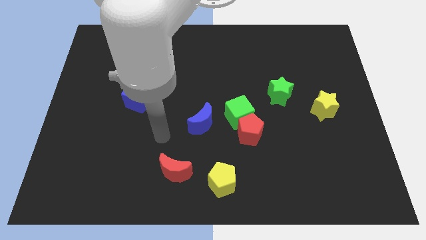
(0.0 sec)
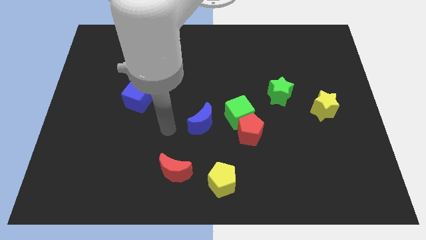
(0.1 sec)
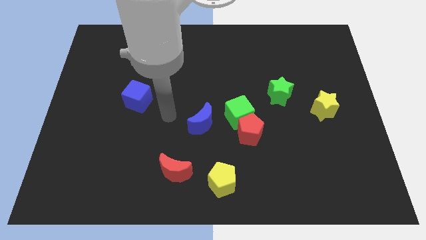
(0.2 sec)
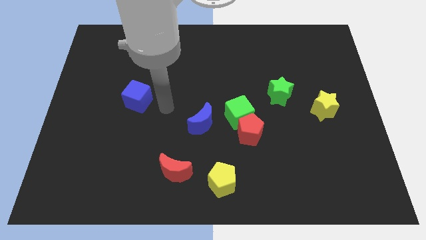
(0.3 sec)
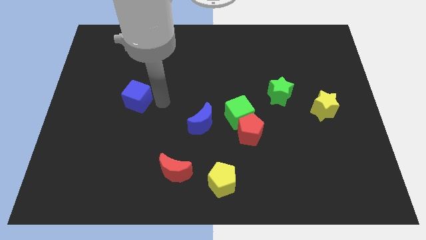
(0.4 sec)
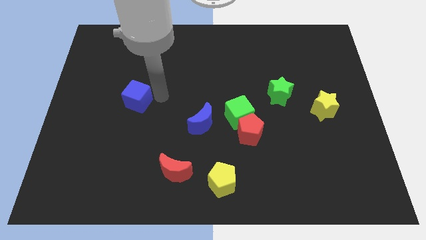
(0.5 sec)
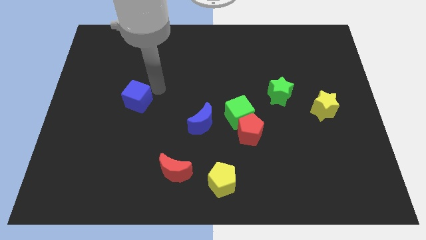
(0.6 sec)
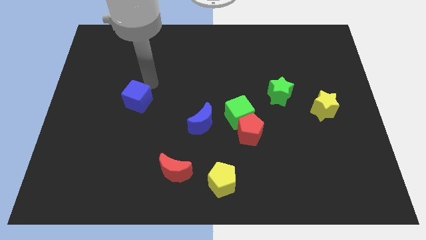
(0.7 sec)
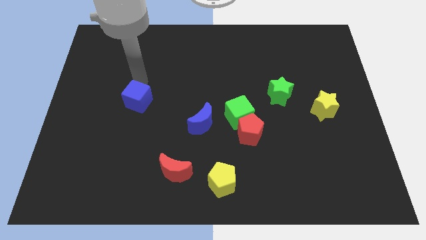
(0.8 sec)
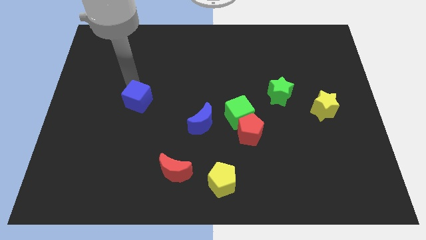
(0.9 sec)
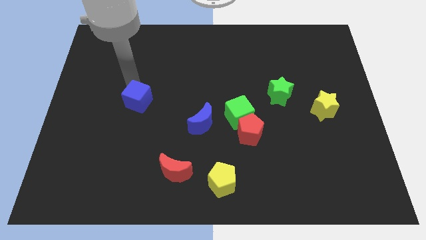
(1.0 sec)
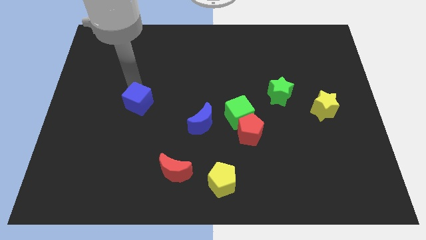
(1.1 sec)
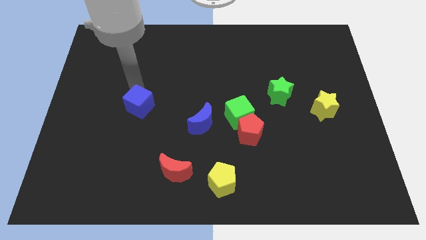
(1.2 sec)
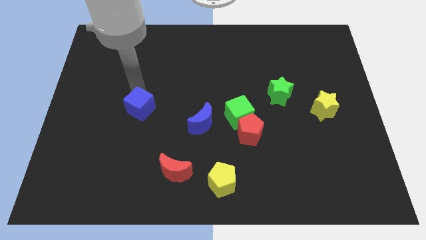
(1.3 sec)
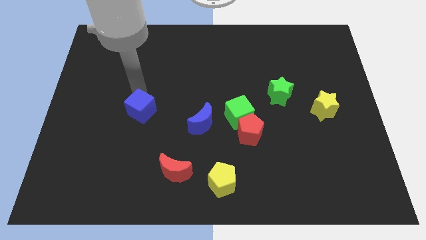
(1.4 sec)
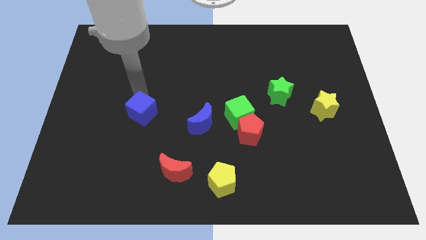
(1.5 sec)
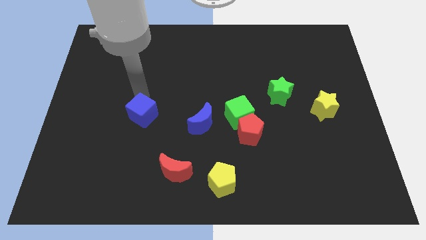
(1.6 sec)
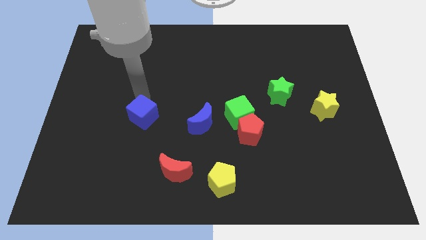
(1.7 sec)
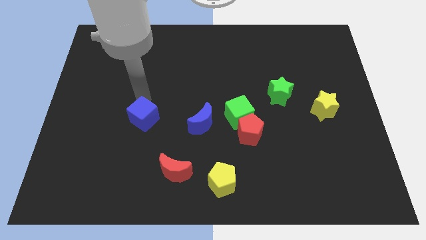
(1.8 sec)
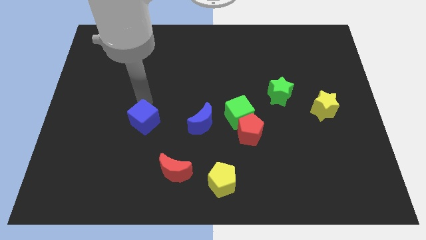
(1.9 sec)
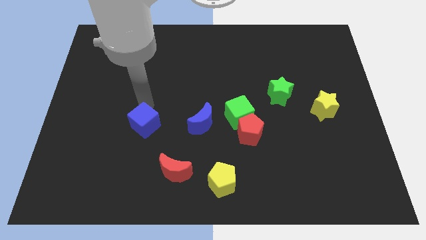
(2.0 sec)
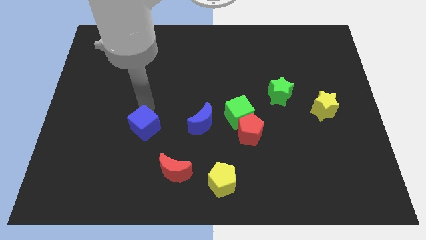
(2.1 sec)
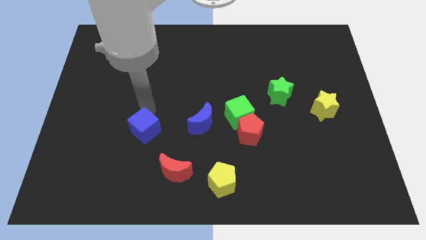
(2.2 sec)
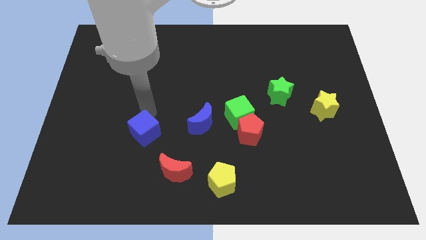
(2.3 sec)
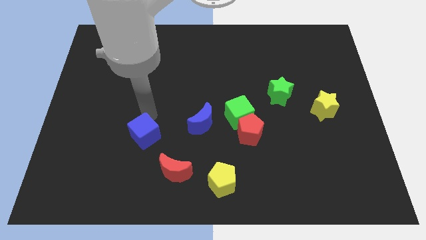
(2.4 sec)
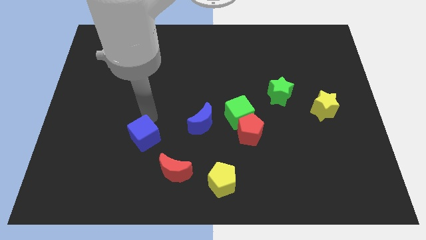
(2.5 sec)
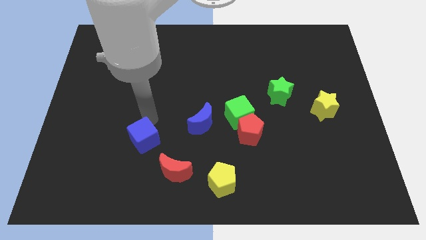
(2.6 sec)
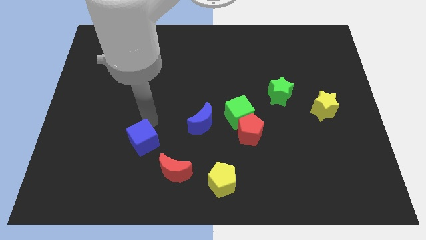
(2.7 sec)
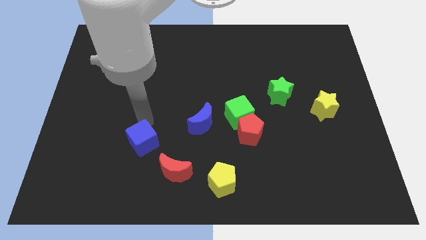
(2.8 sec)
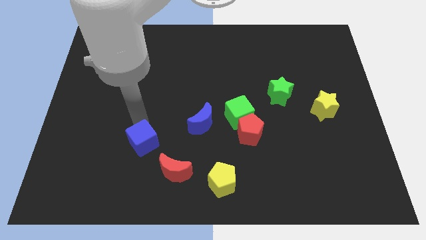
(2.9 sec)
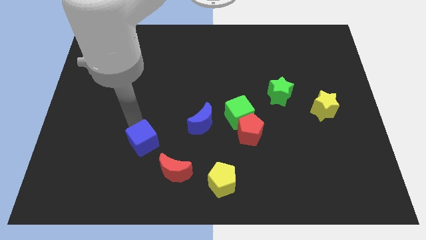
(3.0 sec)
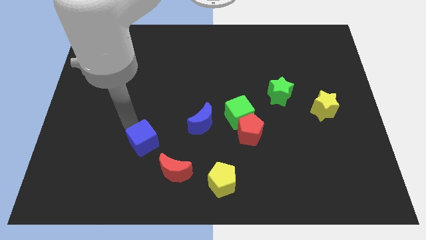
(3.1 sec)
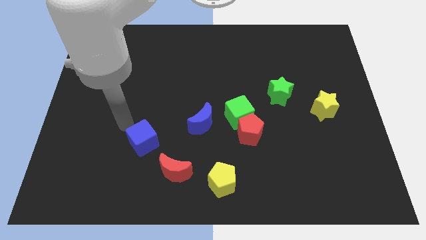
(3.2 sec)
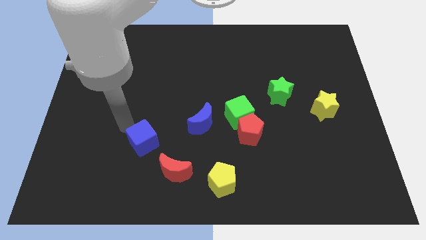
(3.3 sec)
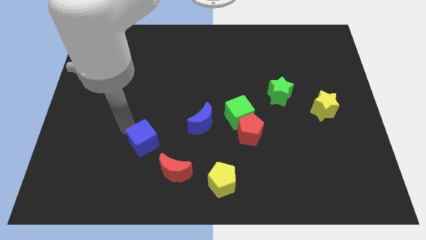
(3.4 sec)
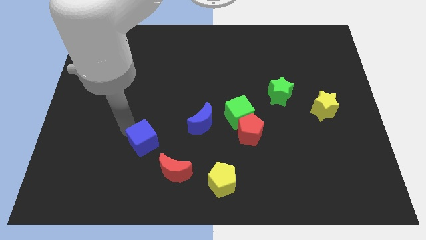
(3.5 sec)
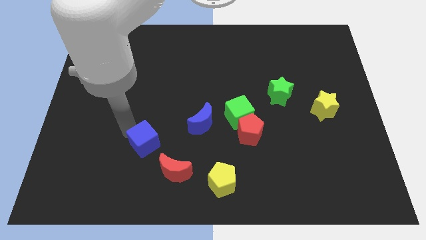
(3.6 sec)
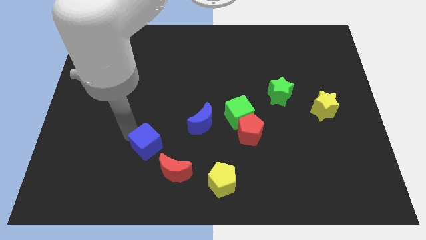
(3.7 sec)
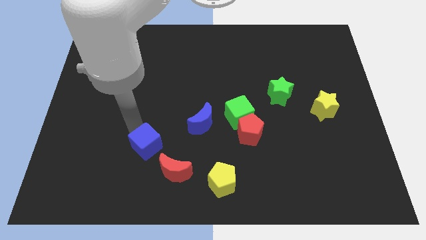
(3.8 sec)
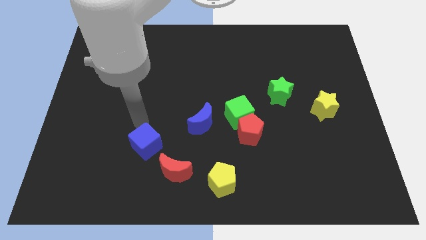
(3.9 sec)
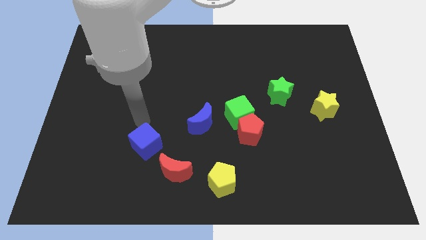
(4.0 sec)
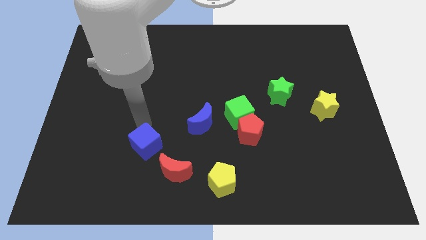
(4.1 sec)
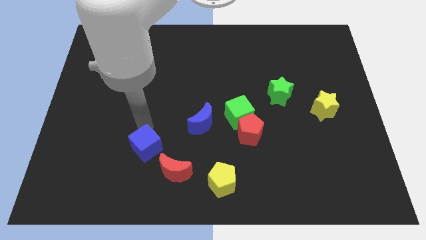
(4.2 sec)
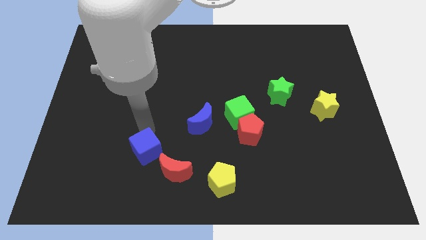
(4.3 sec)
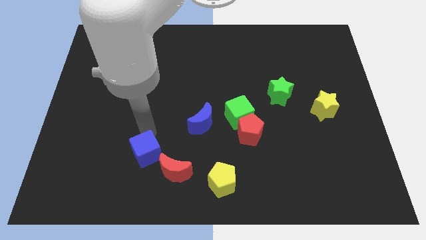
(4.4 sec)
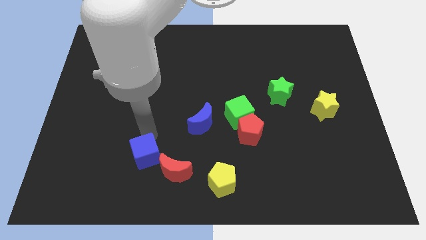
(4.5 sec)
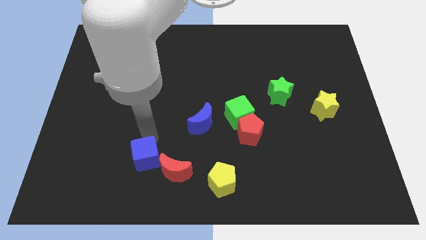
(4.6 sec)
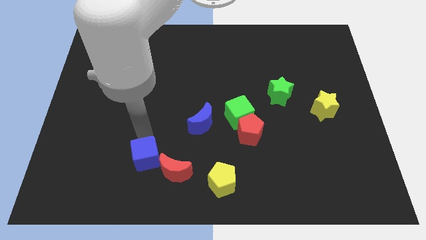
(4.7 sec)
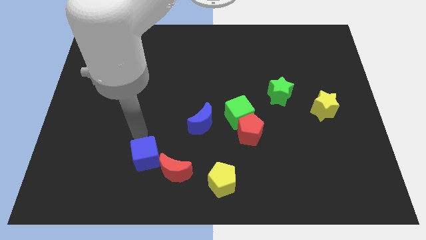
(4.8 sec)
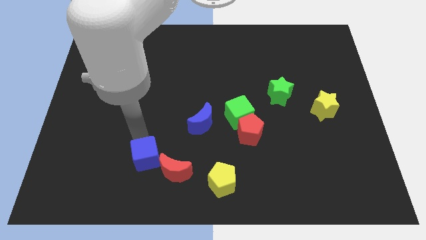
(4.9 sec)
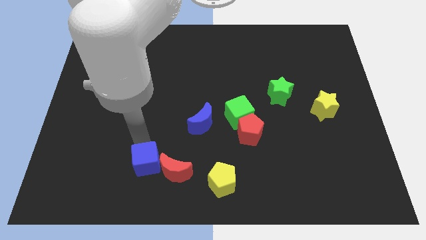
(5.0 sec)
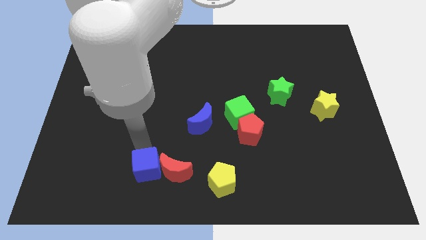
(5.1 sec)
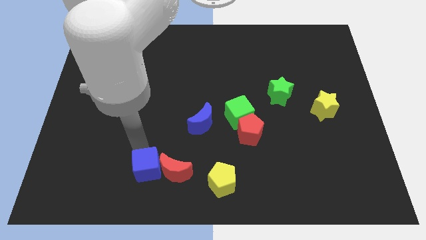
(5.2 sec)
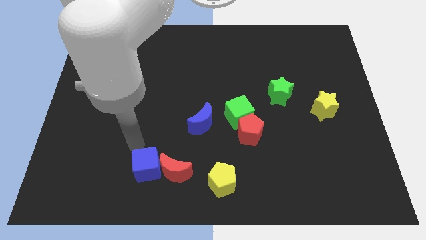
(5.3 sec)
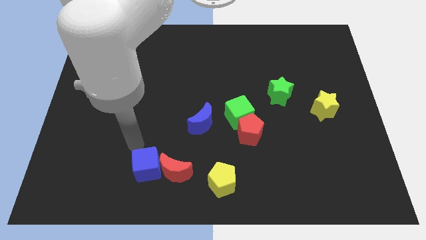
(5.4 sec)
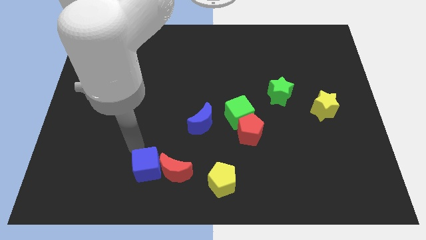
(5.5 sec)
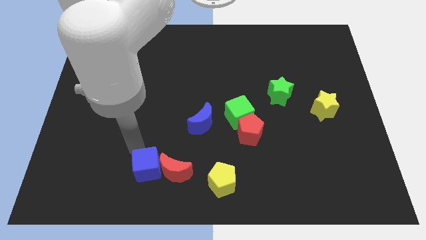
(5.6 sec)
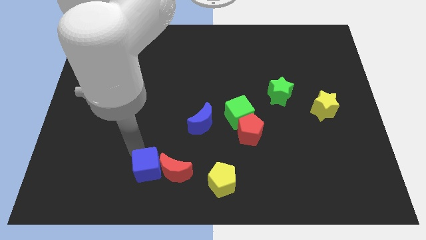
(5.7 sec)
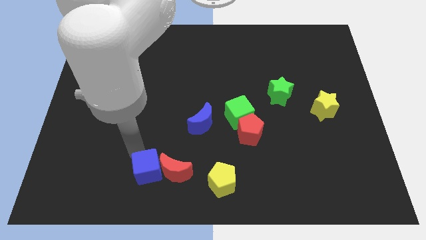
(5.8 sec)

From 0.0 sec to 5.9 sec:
put the blue cube to the left side of the yellow pentagon

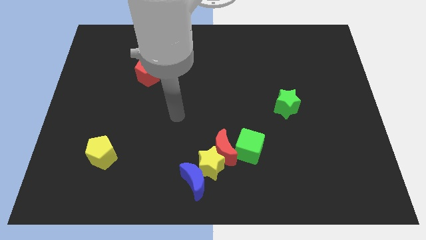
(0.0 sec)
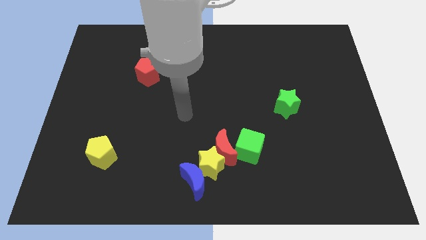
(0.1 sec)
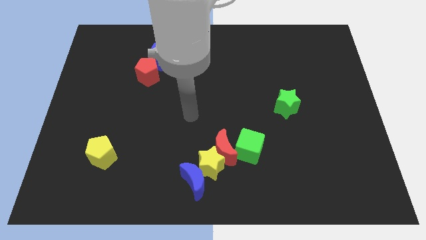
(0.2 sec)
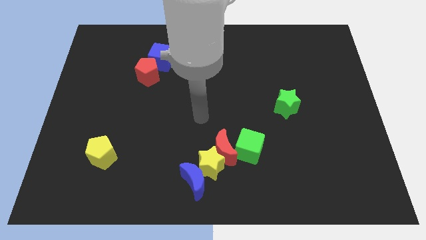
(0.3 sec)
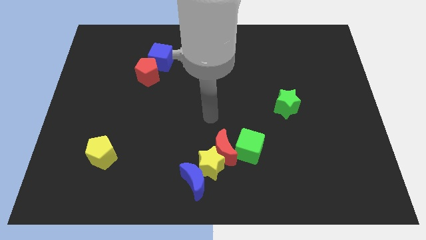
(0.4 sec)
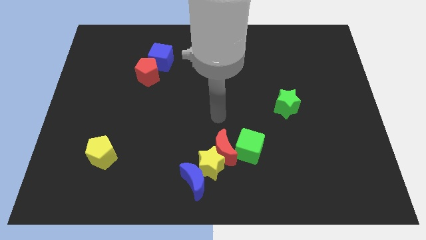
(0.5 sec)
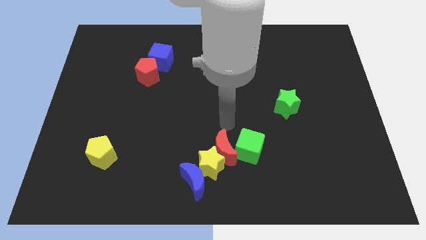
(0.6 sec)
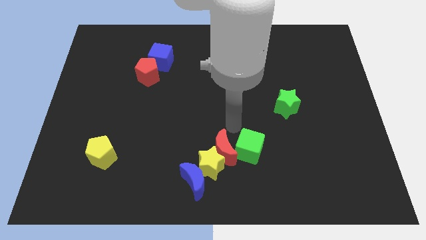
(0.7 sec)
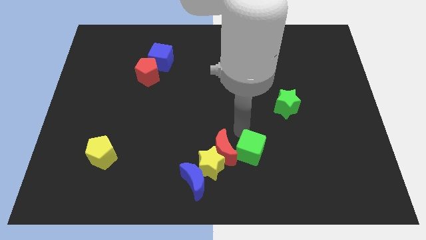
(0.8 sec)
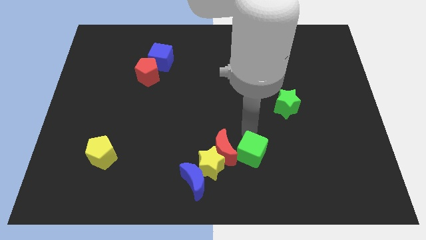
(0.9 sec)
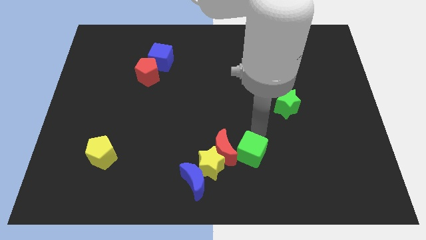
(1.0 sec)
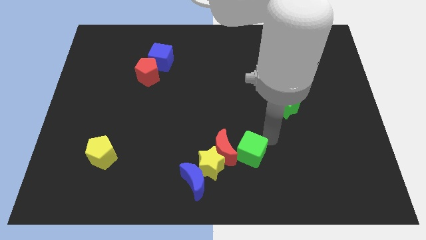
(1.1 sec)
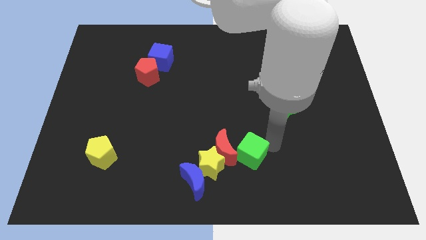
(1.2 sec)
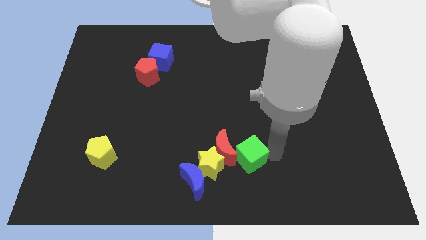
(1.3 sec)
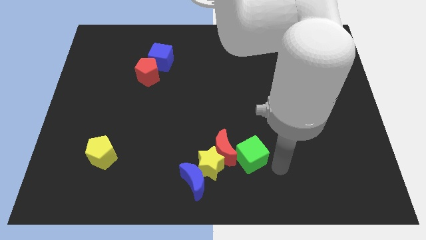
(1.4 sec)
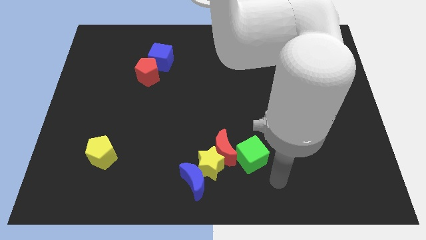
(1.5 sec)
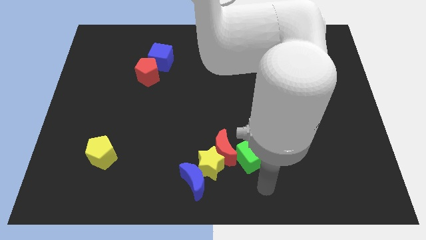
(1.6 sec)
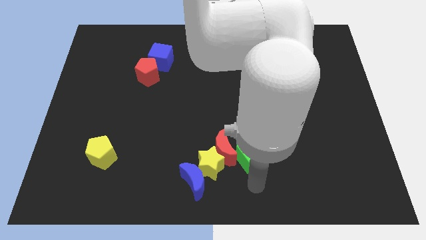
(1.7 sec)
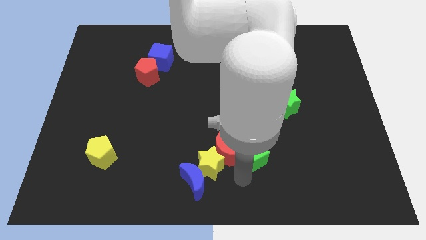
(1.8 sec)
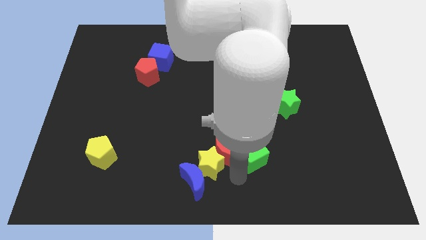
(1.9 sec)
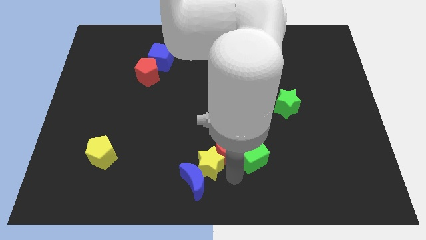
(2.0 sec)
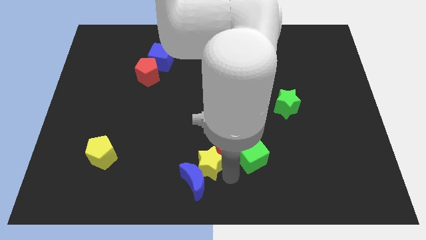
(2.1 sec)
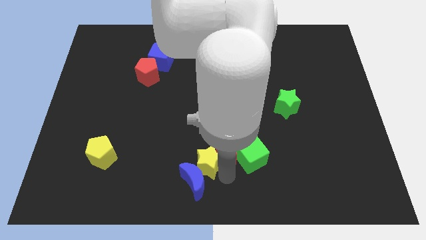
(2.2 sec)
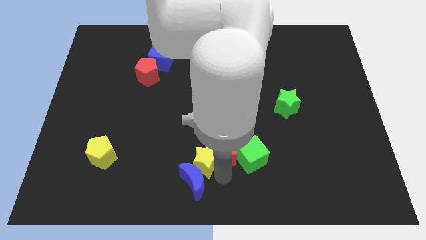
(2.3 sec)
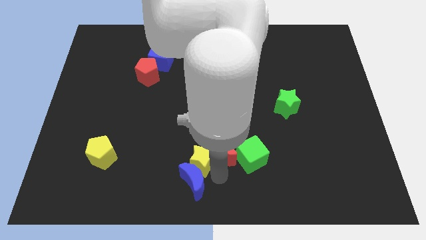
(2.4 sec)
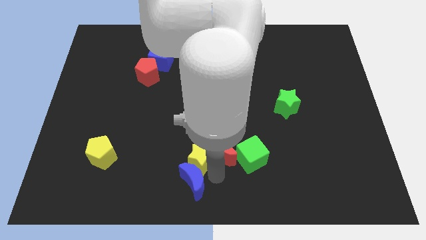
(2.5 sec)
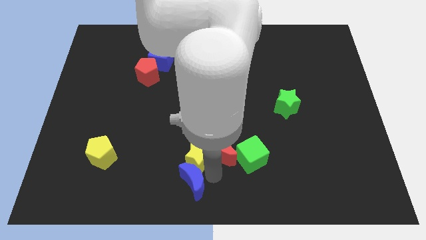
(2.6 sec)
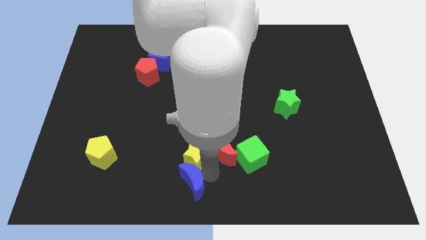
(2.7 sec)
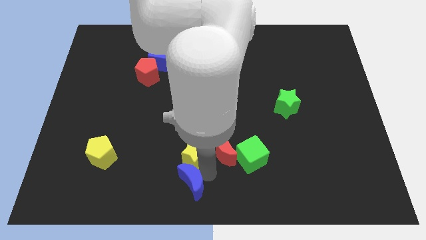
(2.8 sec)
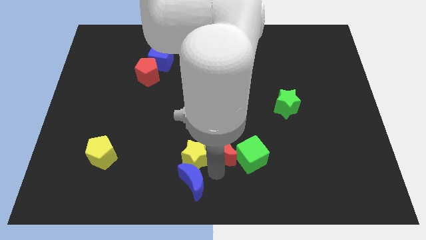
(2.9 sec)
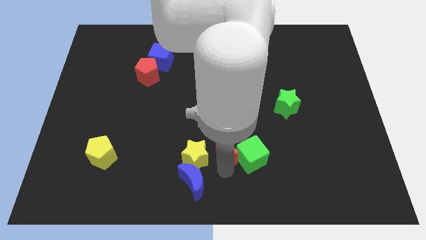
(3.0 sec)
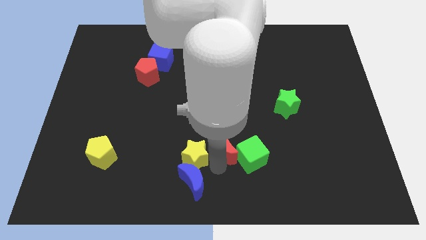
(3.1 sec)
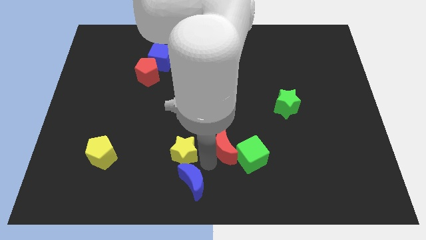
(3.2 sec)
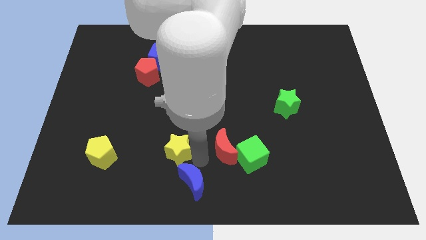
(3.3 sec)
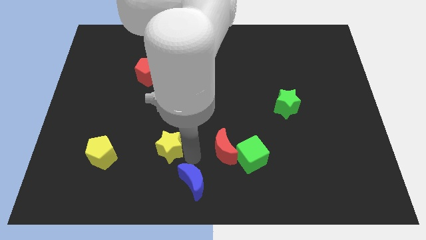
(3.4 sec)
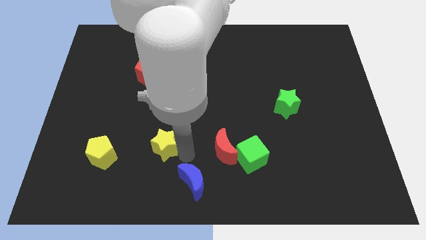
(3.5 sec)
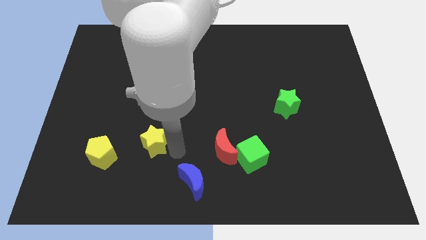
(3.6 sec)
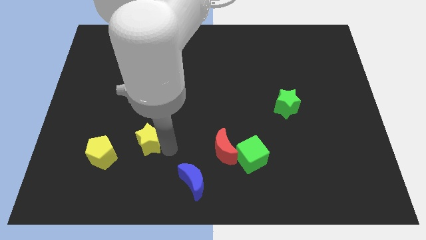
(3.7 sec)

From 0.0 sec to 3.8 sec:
move the yellow star to the top right side of the yellow pentagon
